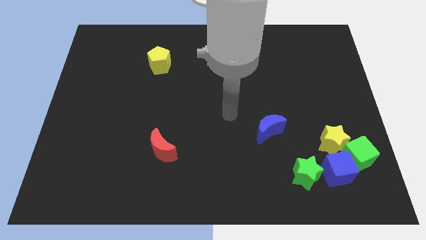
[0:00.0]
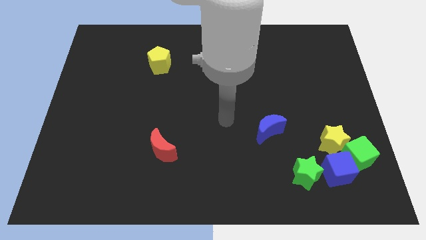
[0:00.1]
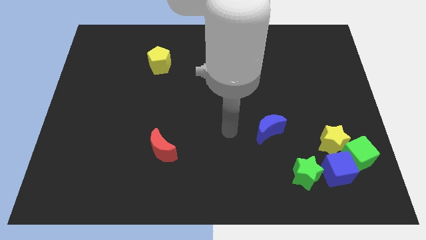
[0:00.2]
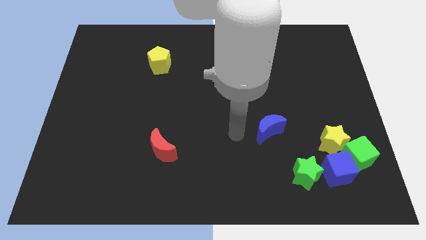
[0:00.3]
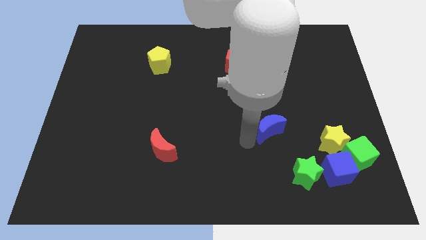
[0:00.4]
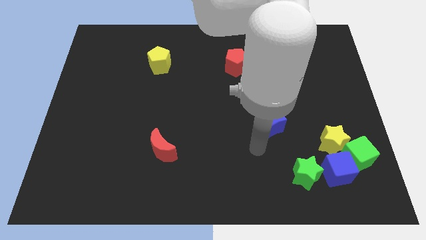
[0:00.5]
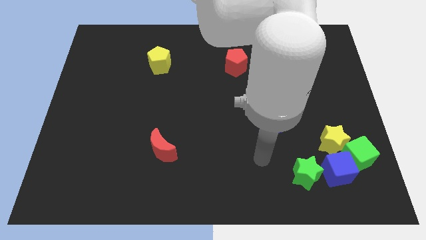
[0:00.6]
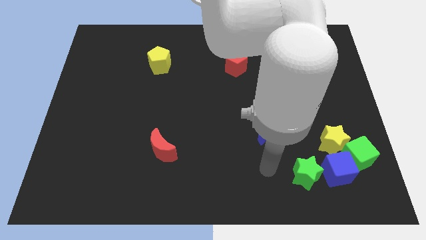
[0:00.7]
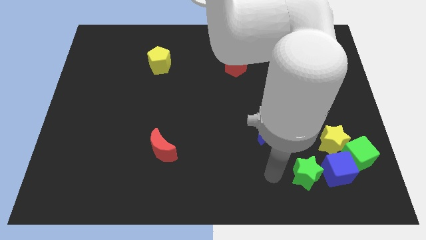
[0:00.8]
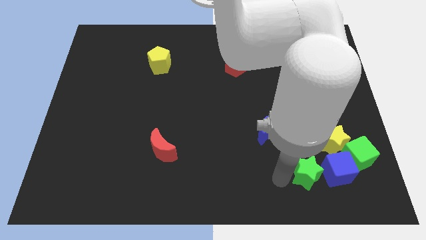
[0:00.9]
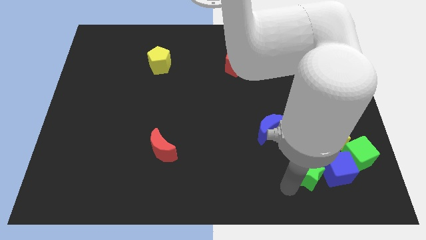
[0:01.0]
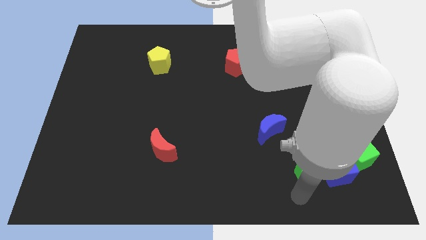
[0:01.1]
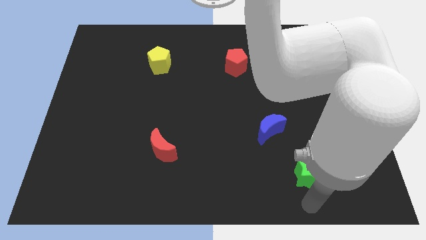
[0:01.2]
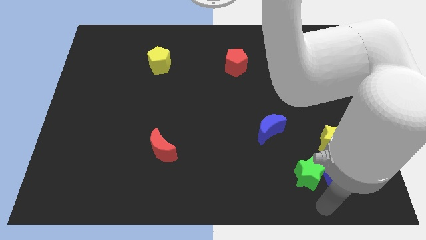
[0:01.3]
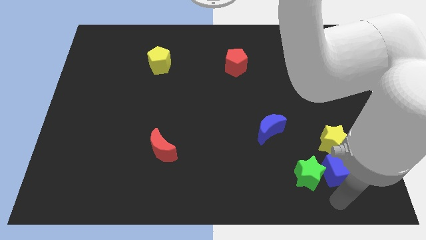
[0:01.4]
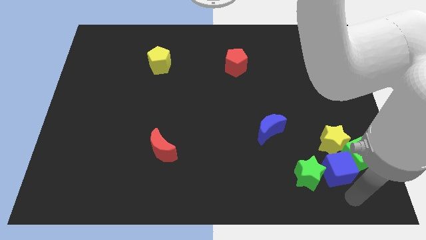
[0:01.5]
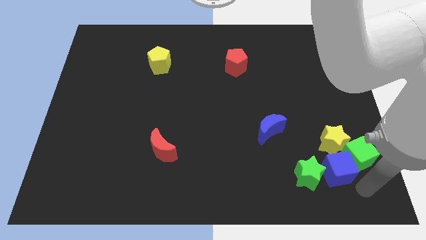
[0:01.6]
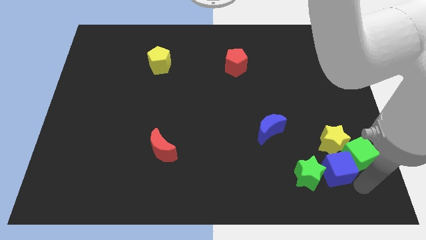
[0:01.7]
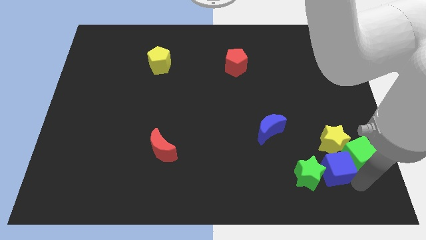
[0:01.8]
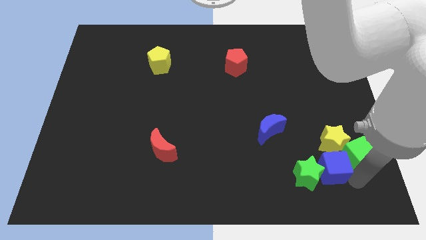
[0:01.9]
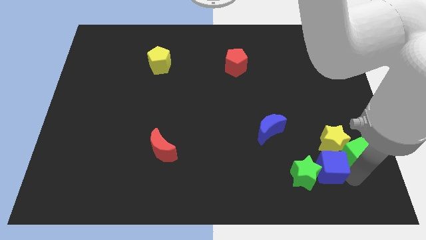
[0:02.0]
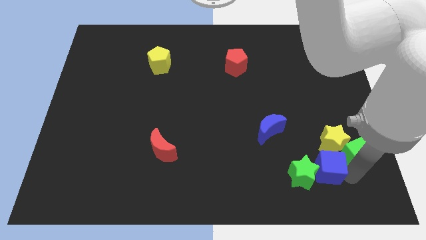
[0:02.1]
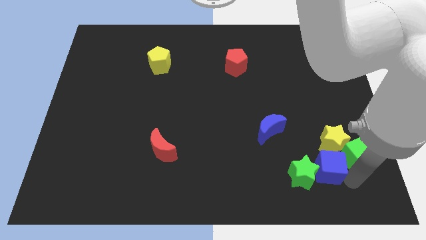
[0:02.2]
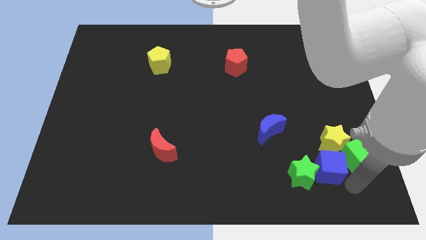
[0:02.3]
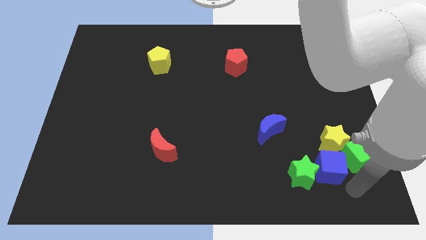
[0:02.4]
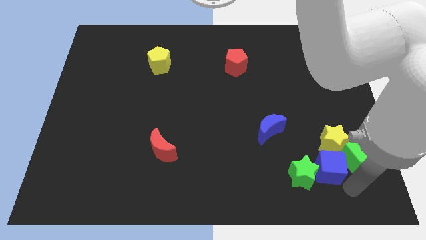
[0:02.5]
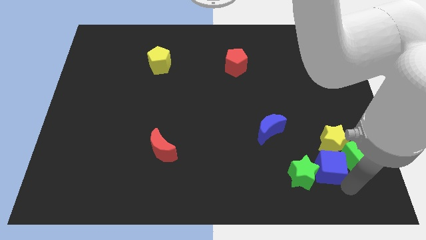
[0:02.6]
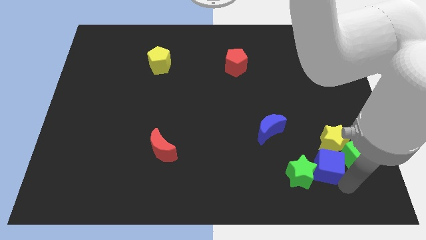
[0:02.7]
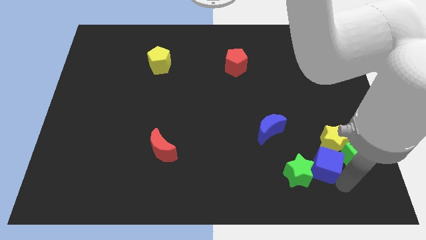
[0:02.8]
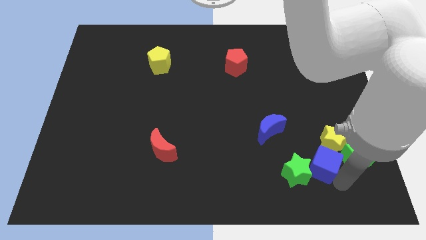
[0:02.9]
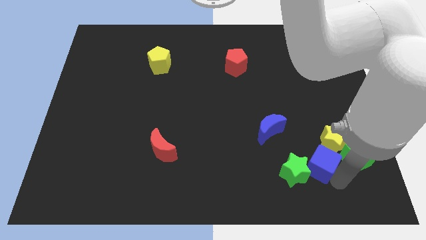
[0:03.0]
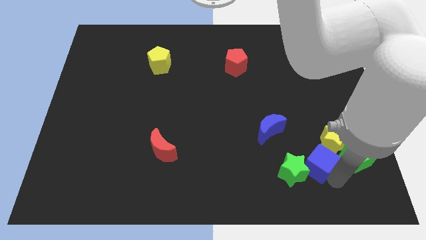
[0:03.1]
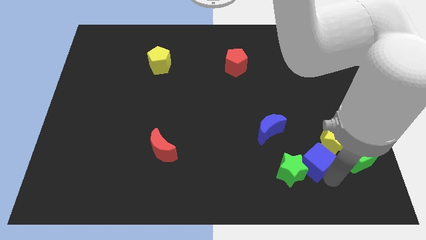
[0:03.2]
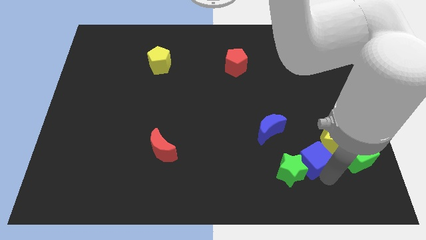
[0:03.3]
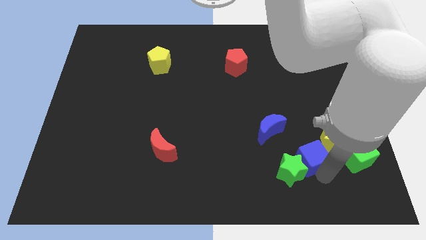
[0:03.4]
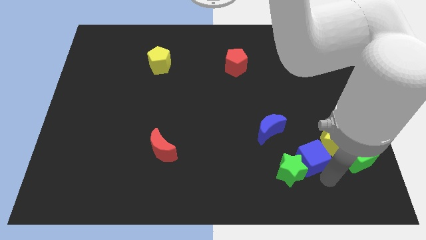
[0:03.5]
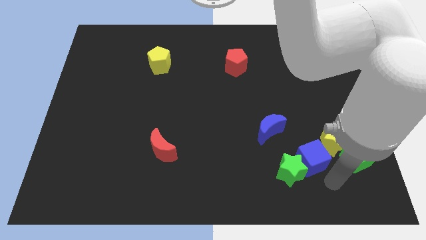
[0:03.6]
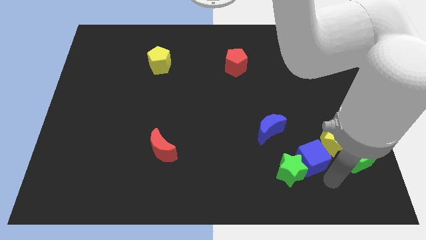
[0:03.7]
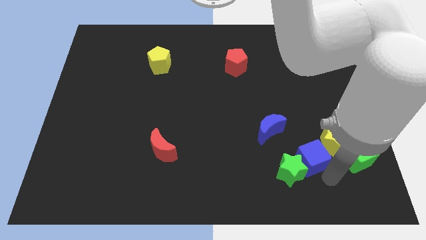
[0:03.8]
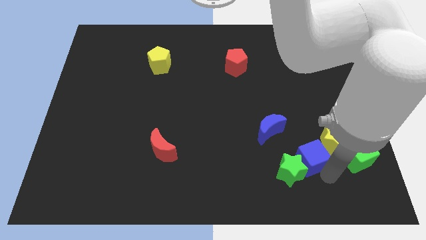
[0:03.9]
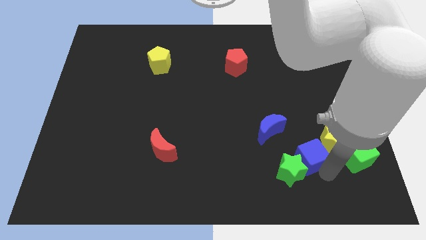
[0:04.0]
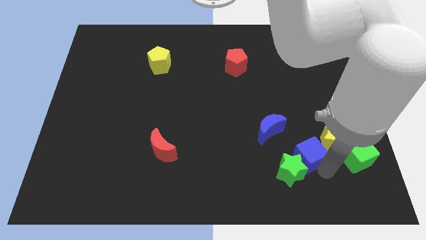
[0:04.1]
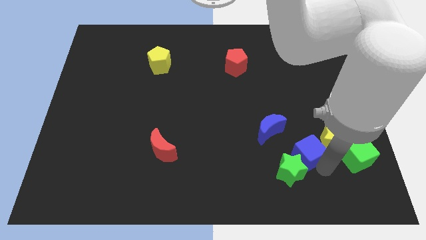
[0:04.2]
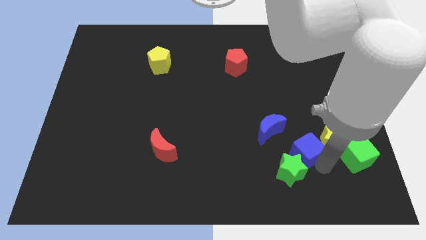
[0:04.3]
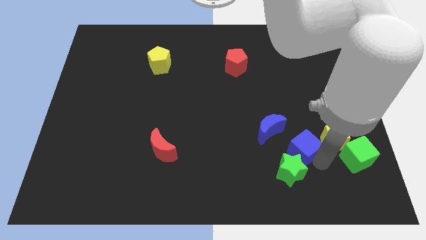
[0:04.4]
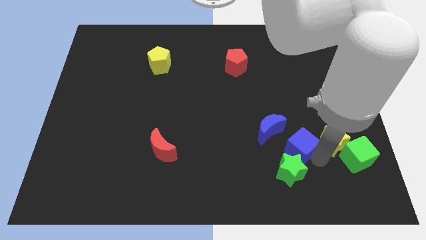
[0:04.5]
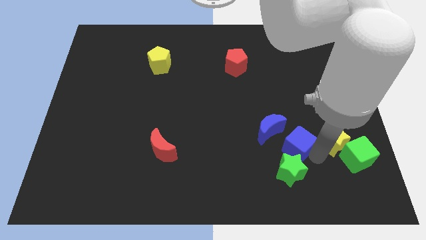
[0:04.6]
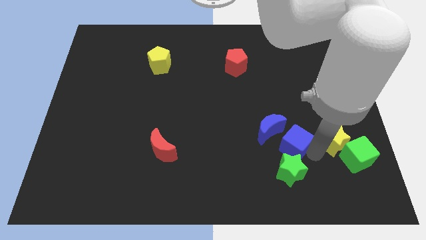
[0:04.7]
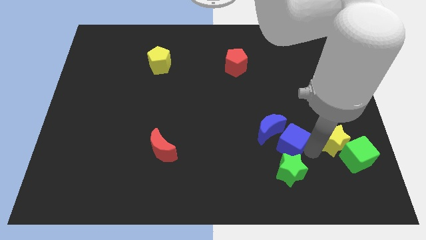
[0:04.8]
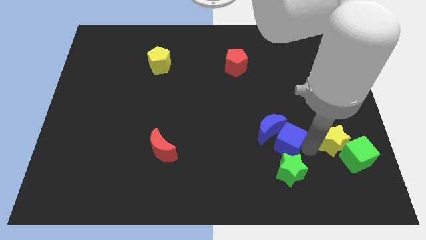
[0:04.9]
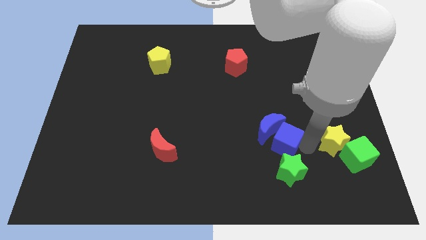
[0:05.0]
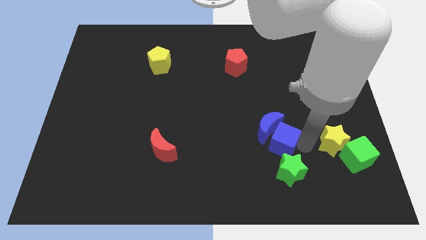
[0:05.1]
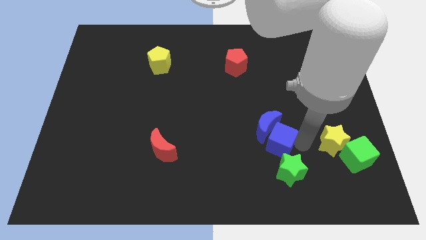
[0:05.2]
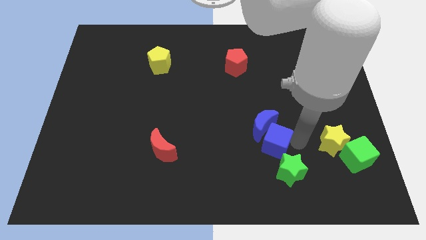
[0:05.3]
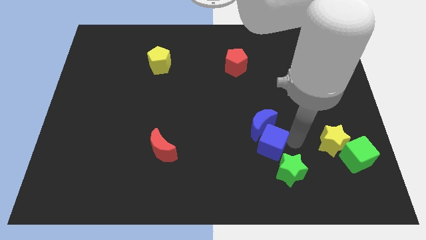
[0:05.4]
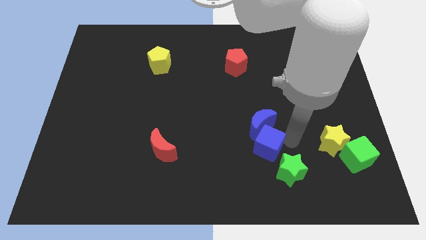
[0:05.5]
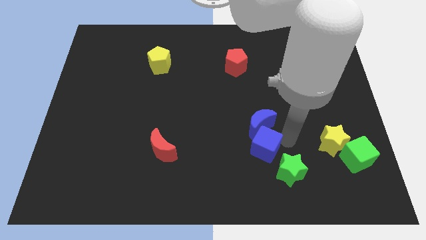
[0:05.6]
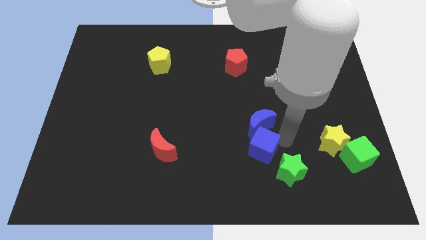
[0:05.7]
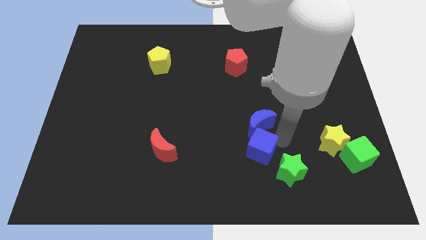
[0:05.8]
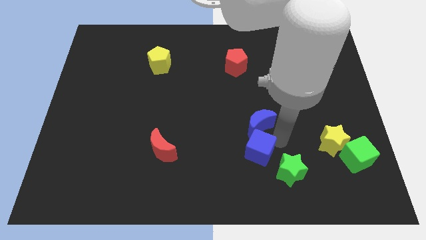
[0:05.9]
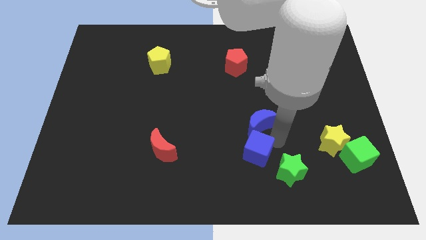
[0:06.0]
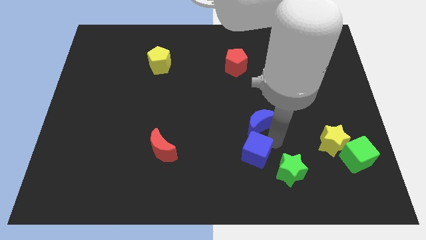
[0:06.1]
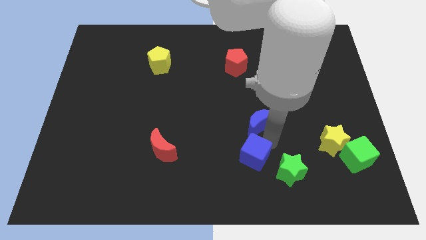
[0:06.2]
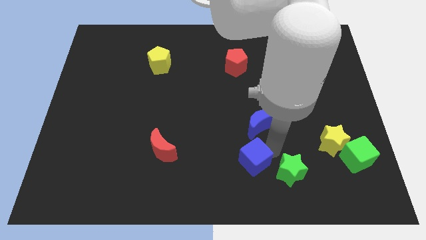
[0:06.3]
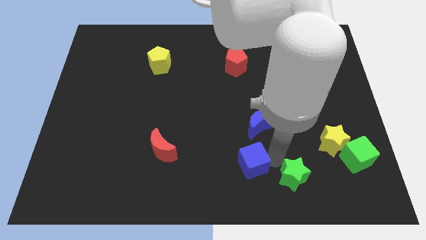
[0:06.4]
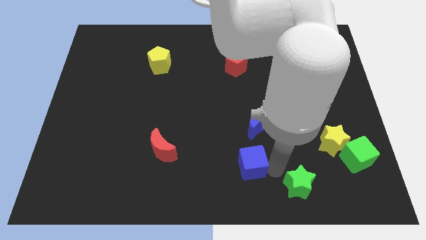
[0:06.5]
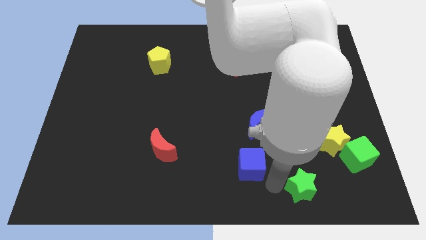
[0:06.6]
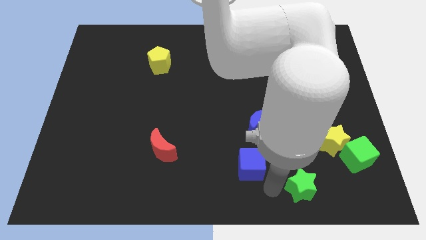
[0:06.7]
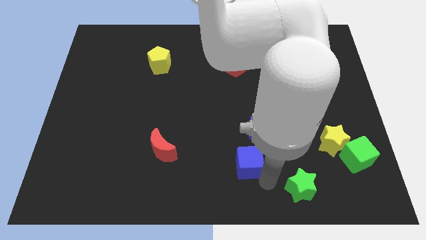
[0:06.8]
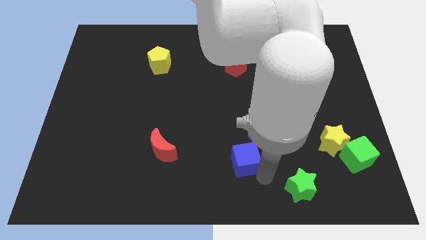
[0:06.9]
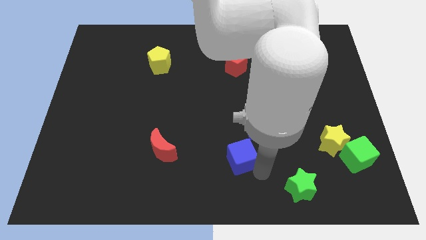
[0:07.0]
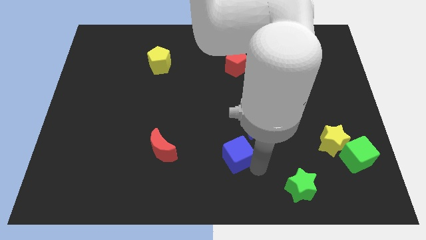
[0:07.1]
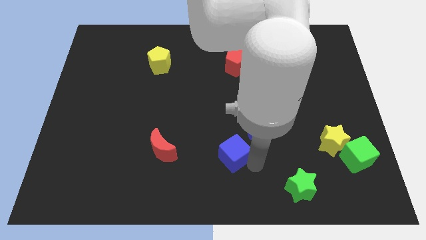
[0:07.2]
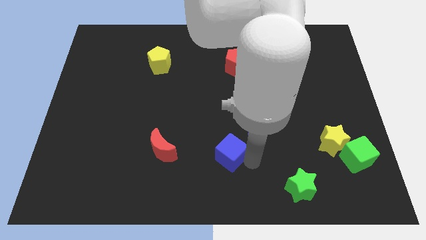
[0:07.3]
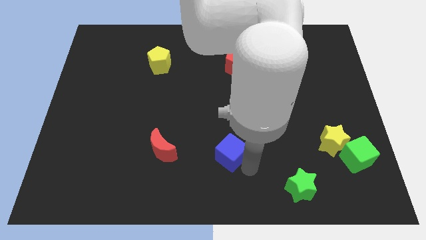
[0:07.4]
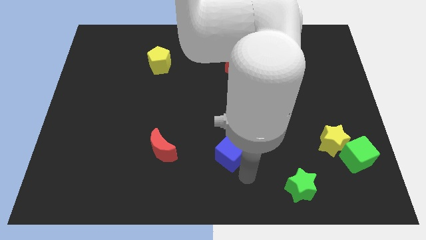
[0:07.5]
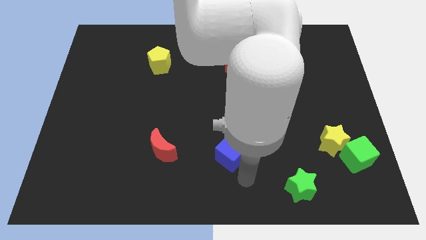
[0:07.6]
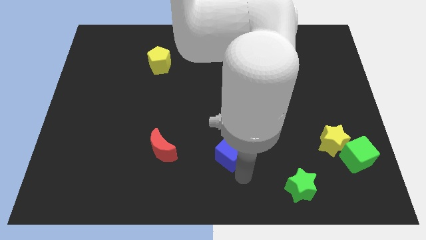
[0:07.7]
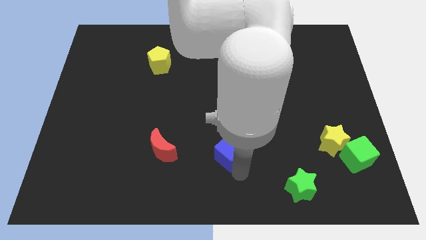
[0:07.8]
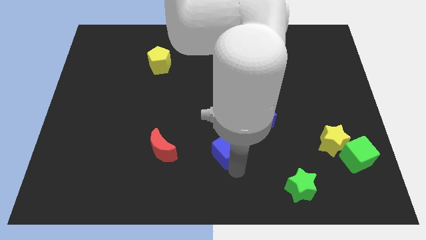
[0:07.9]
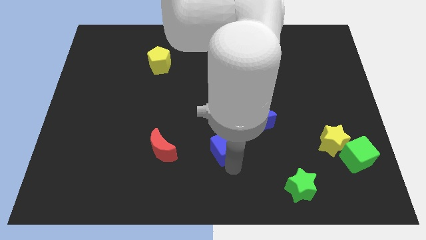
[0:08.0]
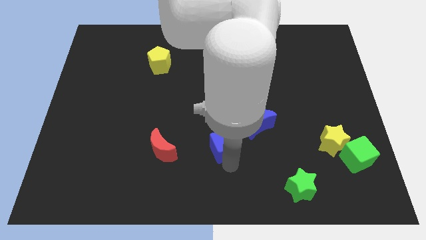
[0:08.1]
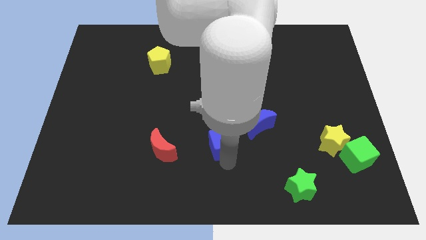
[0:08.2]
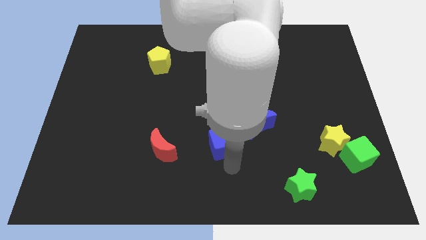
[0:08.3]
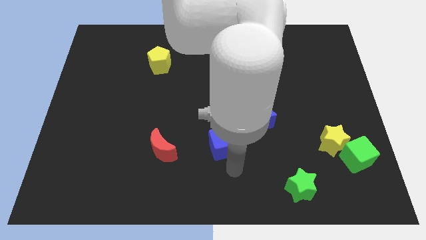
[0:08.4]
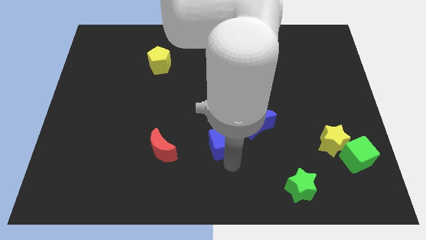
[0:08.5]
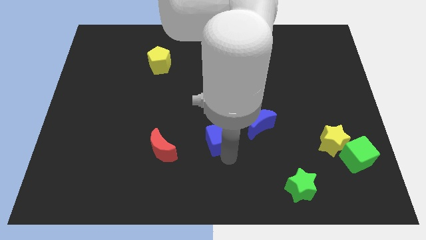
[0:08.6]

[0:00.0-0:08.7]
put the blue cube left of the blue moon
